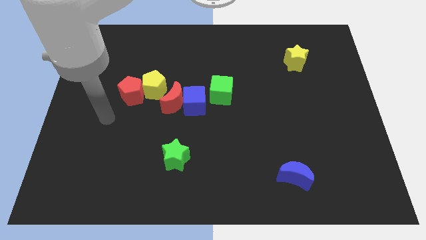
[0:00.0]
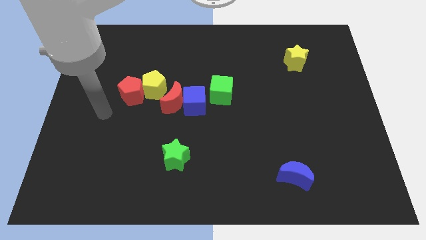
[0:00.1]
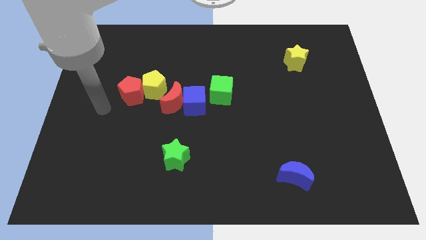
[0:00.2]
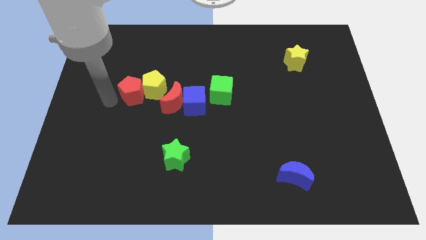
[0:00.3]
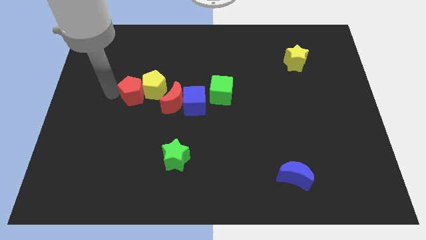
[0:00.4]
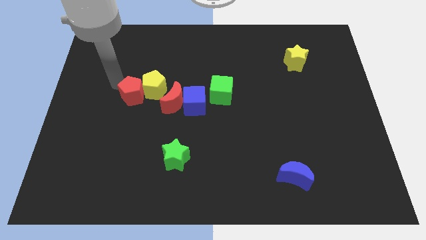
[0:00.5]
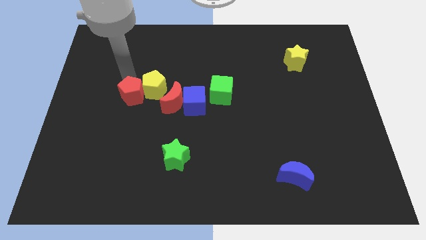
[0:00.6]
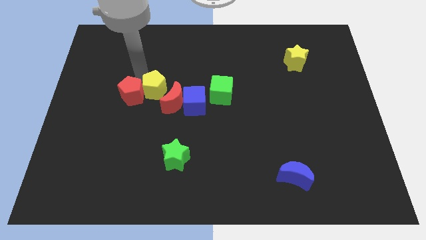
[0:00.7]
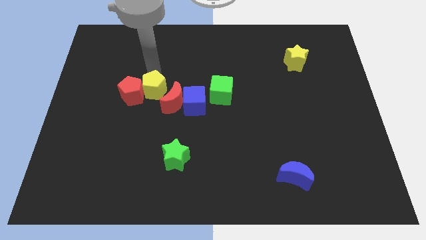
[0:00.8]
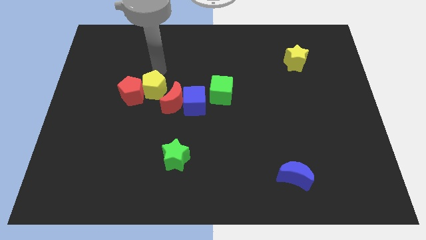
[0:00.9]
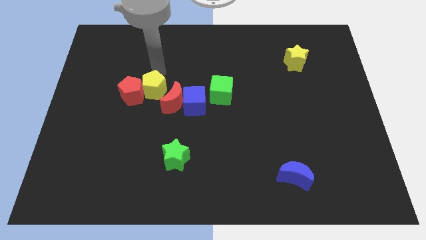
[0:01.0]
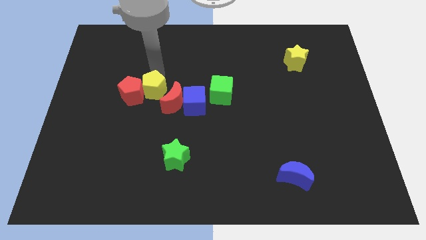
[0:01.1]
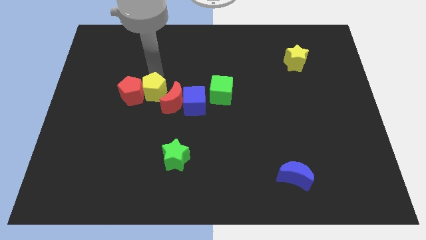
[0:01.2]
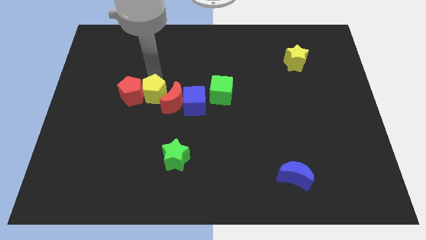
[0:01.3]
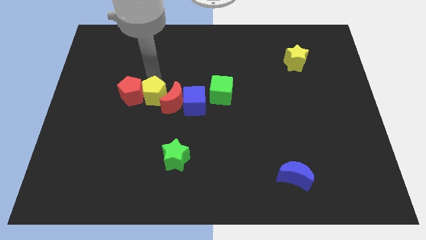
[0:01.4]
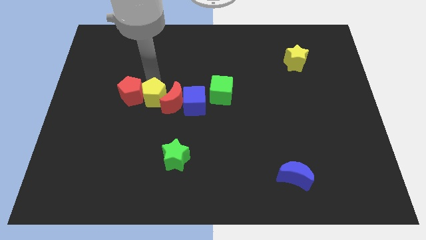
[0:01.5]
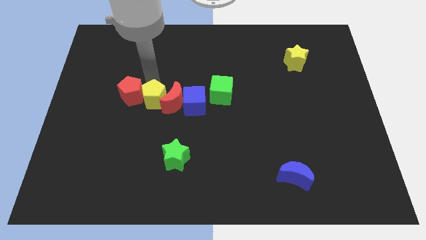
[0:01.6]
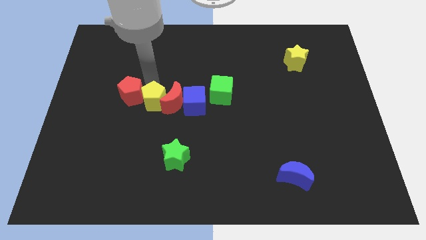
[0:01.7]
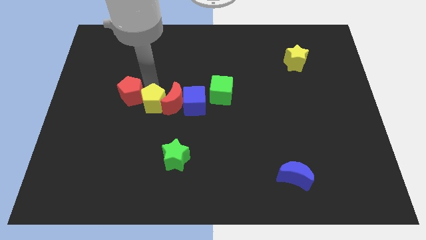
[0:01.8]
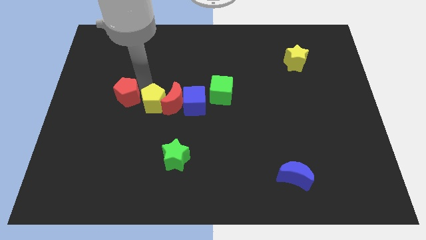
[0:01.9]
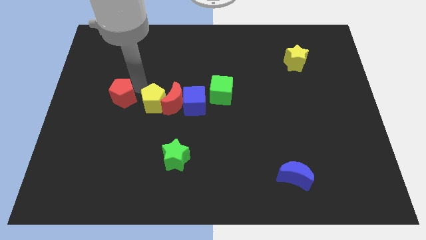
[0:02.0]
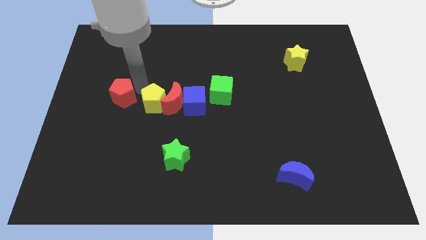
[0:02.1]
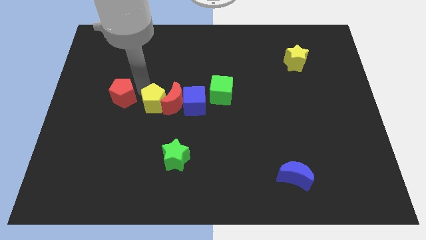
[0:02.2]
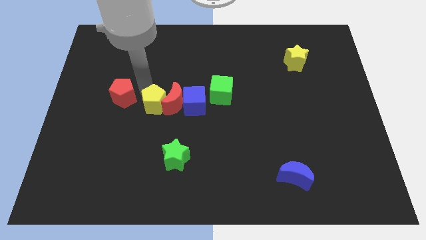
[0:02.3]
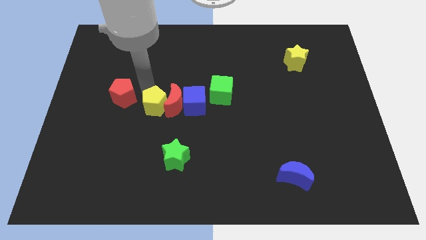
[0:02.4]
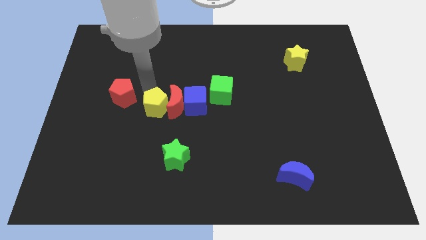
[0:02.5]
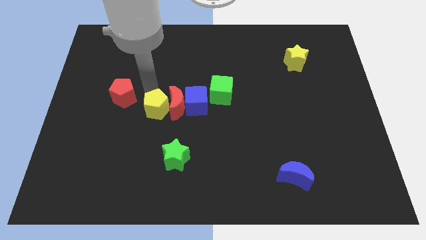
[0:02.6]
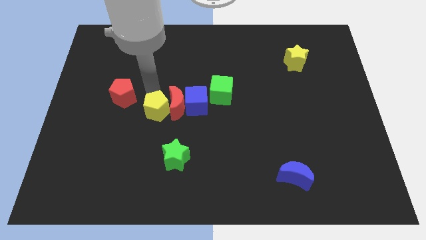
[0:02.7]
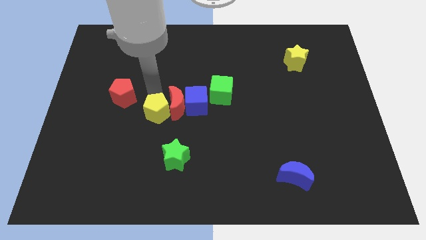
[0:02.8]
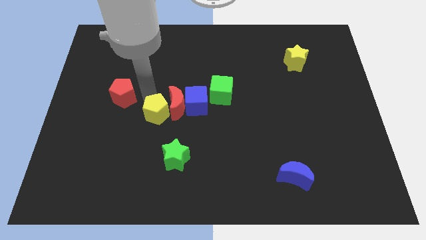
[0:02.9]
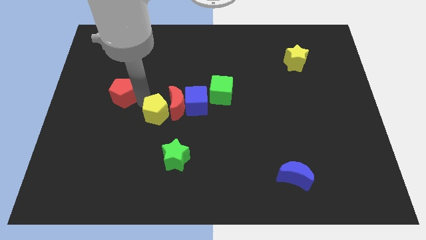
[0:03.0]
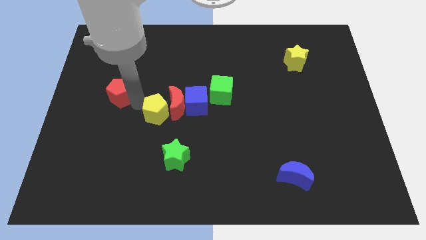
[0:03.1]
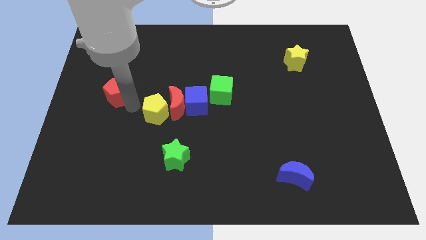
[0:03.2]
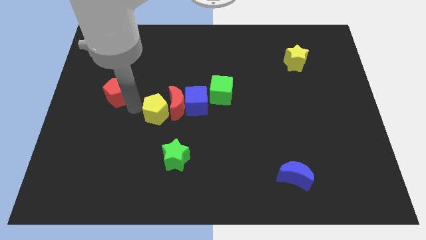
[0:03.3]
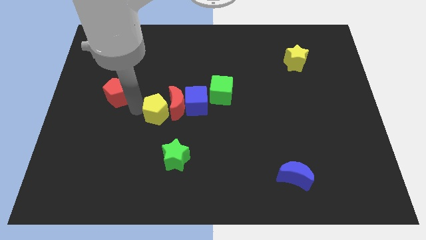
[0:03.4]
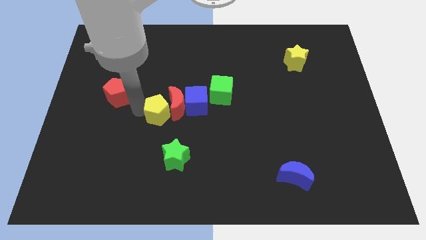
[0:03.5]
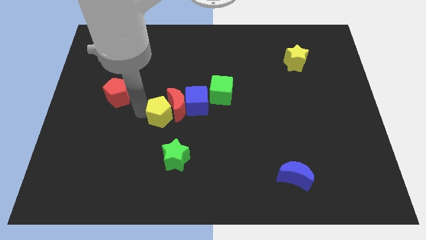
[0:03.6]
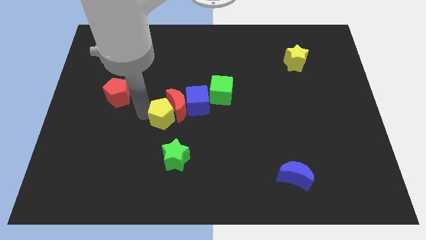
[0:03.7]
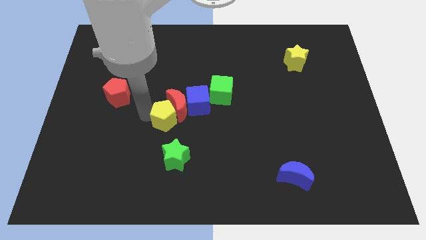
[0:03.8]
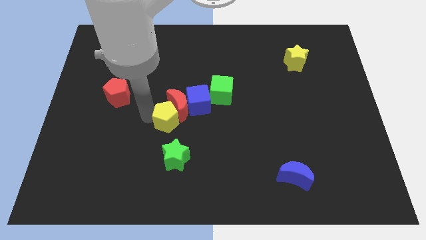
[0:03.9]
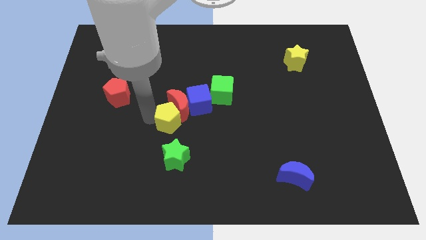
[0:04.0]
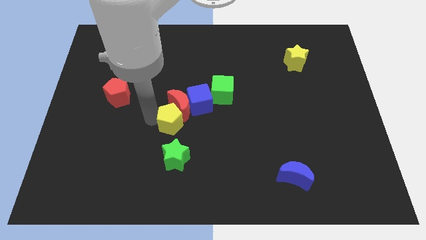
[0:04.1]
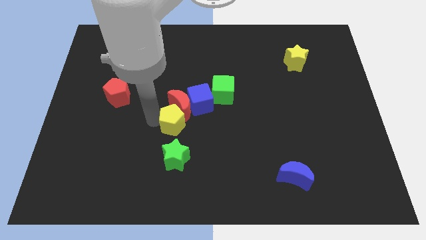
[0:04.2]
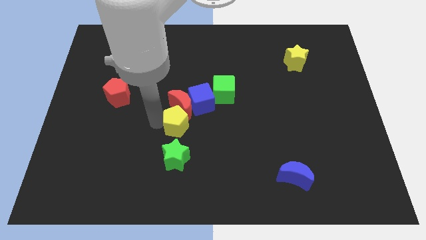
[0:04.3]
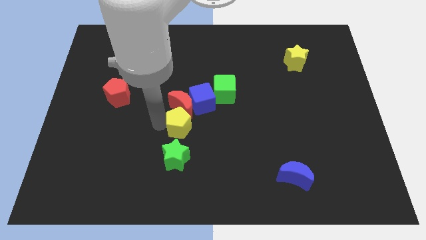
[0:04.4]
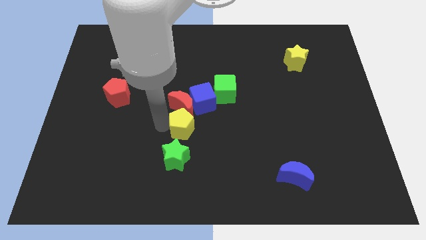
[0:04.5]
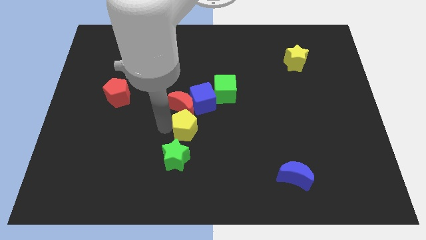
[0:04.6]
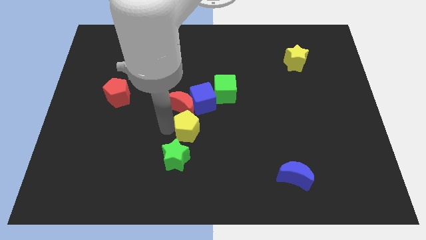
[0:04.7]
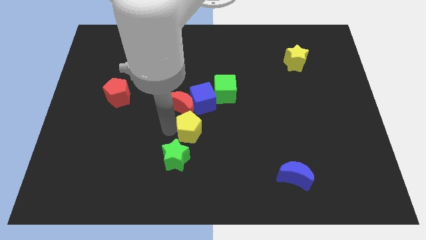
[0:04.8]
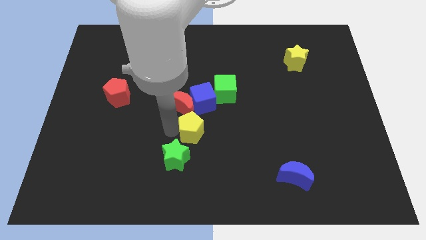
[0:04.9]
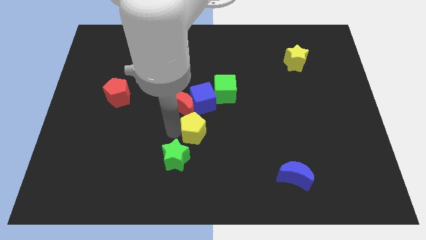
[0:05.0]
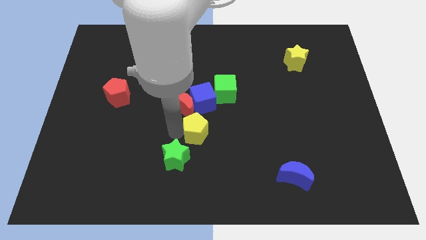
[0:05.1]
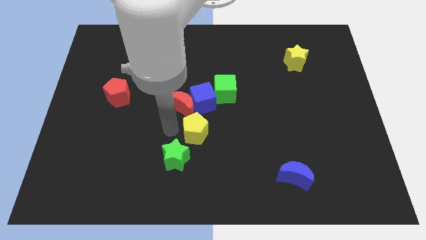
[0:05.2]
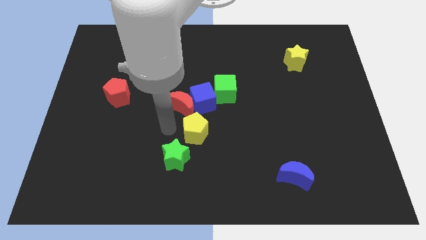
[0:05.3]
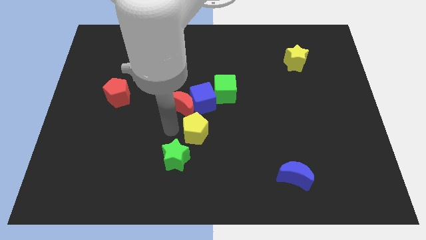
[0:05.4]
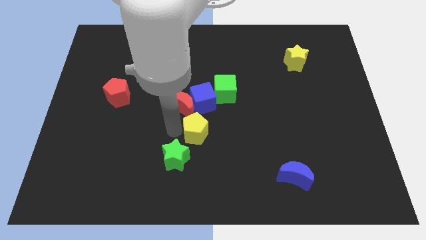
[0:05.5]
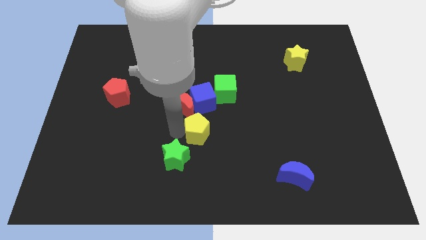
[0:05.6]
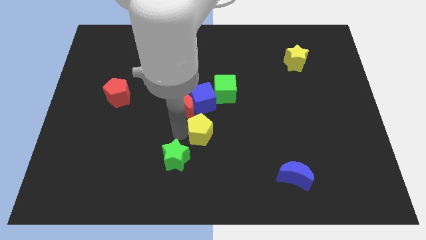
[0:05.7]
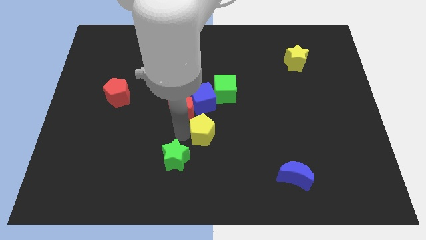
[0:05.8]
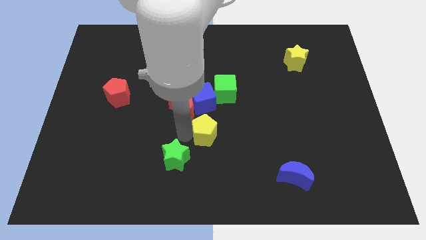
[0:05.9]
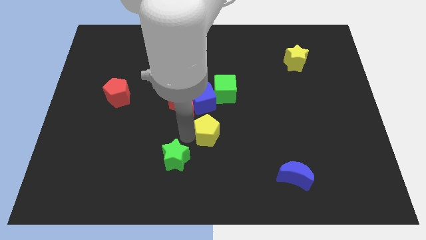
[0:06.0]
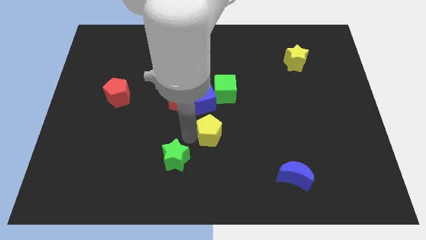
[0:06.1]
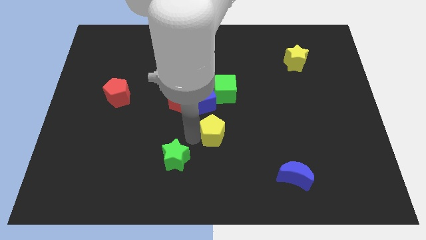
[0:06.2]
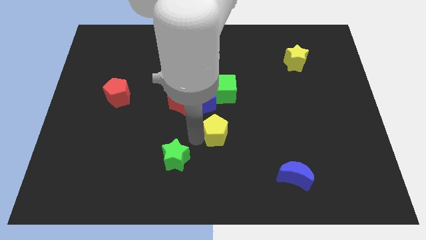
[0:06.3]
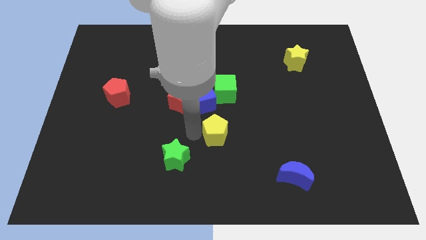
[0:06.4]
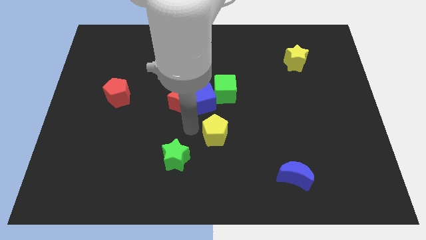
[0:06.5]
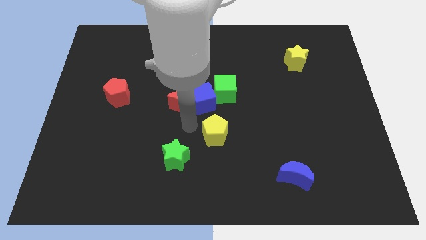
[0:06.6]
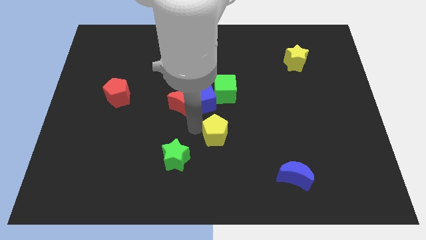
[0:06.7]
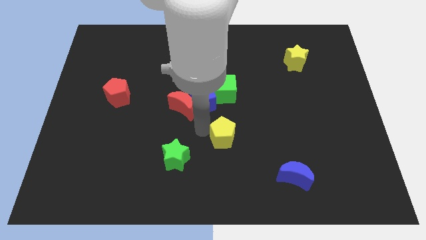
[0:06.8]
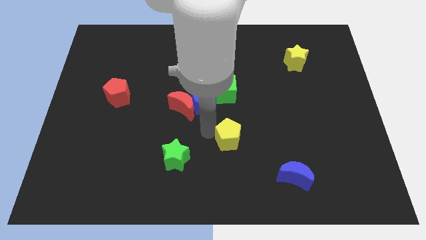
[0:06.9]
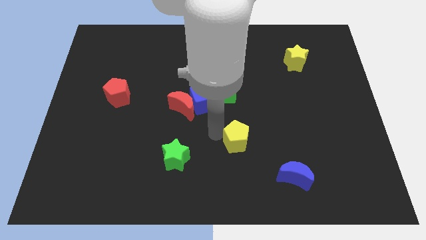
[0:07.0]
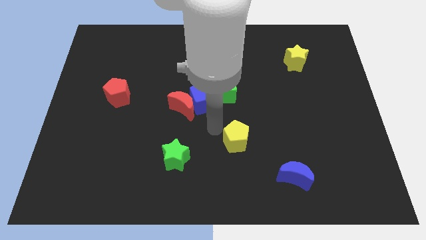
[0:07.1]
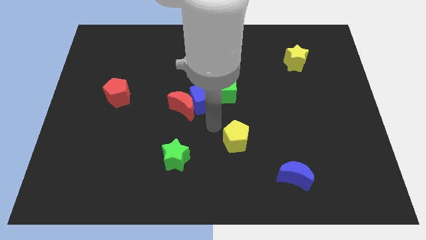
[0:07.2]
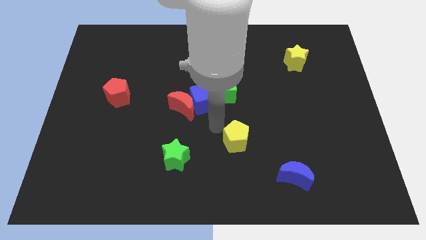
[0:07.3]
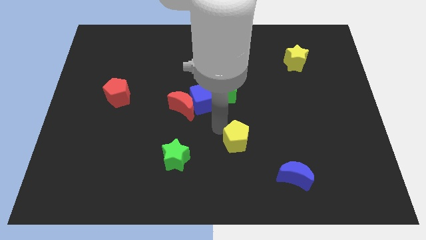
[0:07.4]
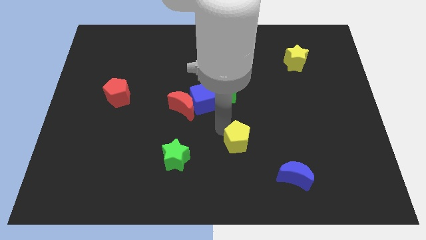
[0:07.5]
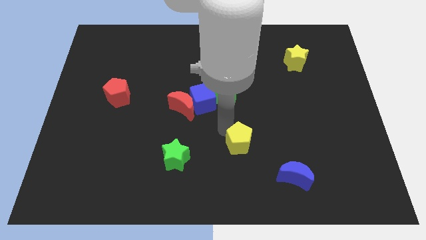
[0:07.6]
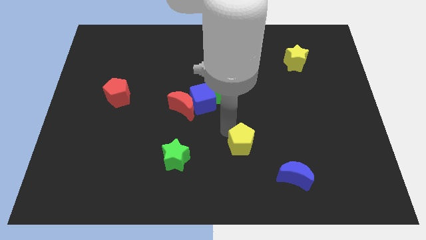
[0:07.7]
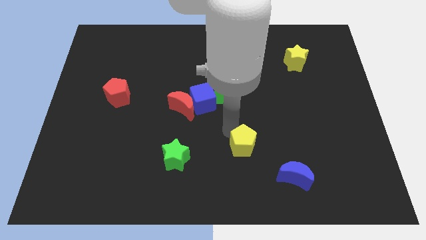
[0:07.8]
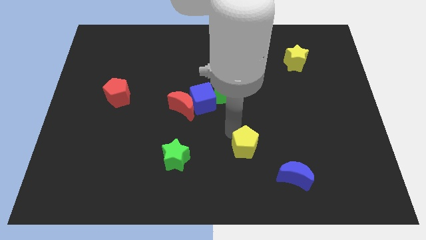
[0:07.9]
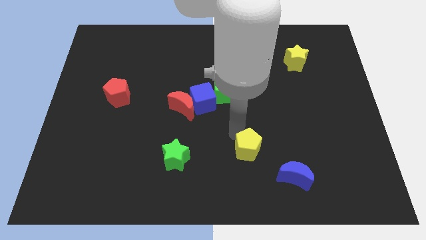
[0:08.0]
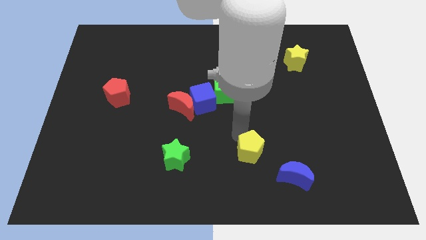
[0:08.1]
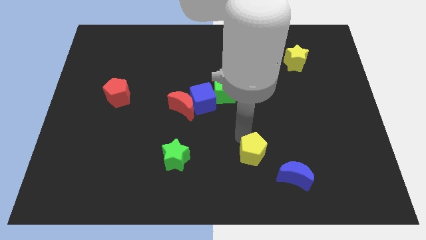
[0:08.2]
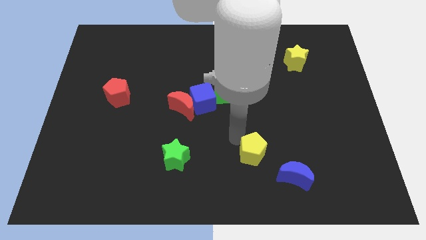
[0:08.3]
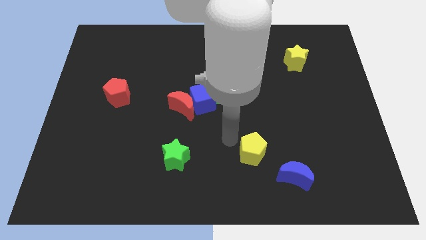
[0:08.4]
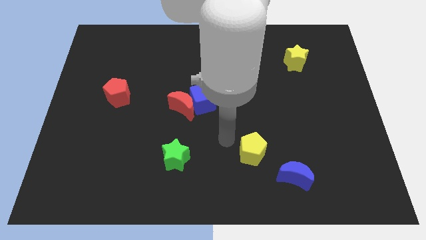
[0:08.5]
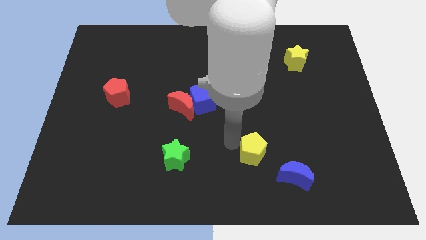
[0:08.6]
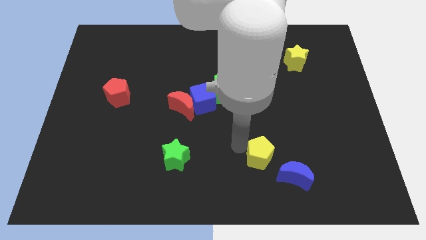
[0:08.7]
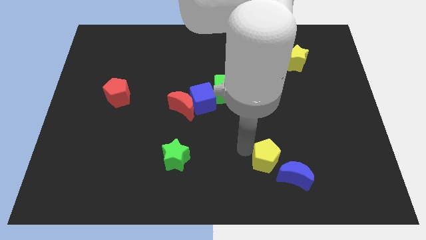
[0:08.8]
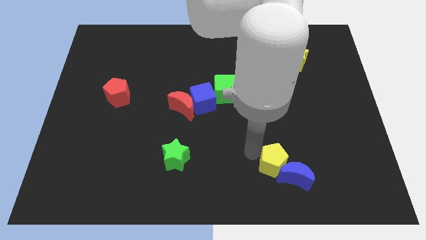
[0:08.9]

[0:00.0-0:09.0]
push the yellow pentagon towards the blue moon
